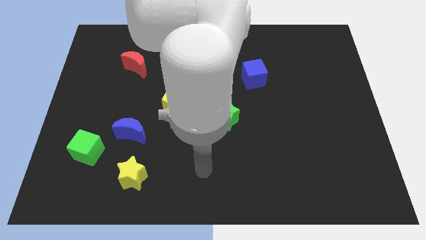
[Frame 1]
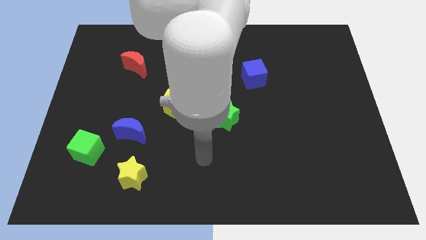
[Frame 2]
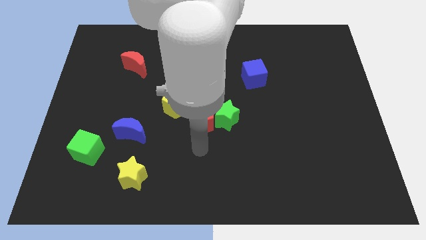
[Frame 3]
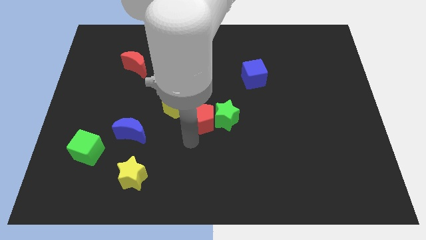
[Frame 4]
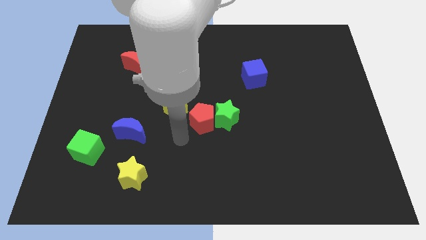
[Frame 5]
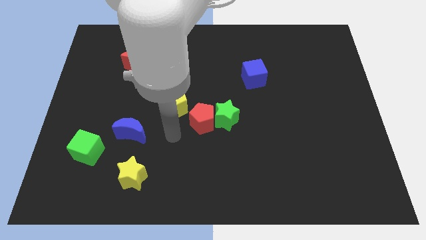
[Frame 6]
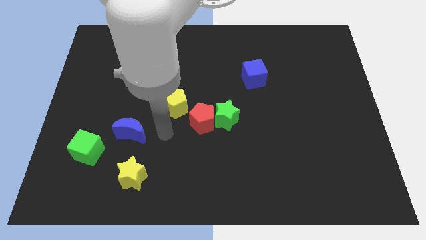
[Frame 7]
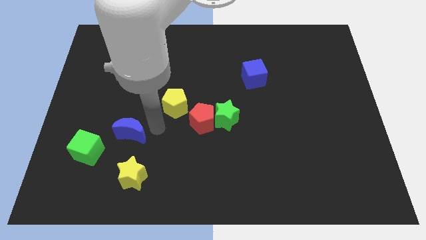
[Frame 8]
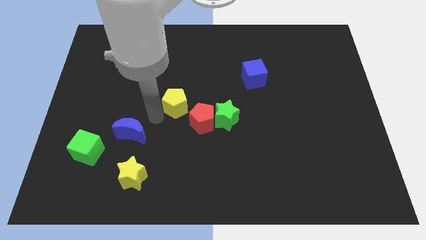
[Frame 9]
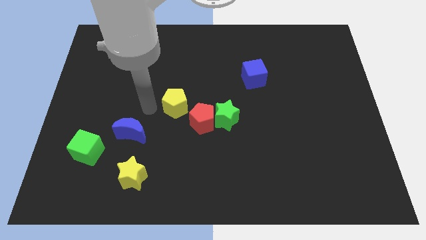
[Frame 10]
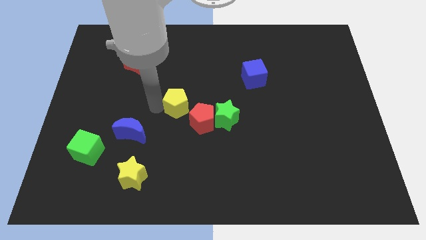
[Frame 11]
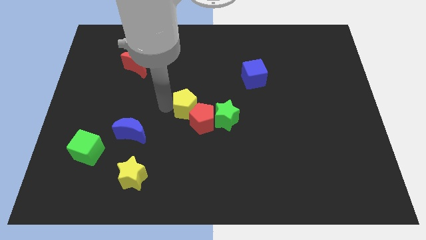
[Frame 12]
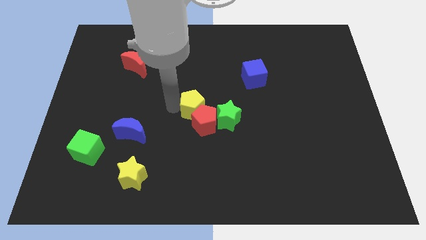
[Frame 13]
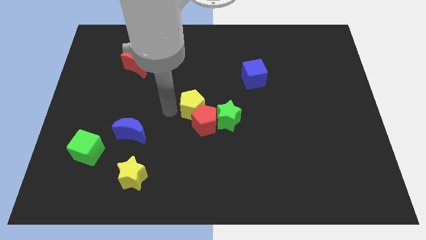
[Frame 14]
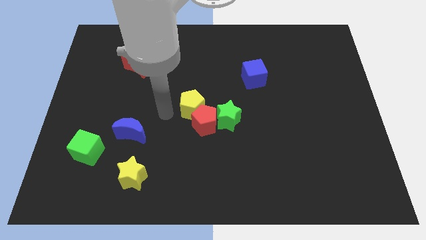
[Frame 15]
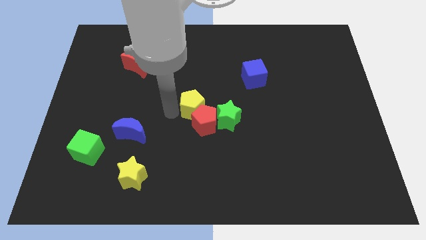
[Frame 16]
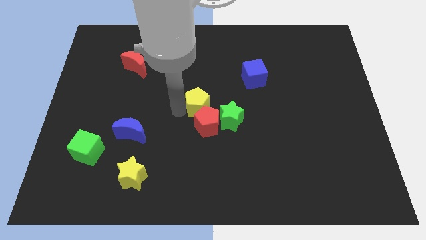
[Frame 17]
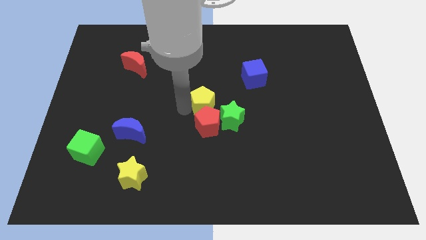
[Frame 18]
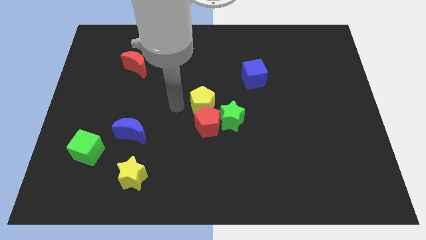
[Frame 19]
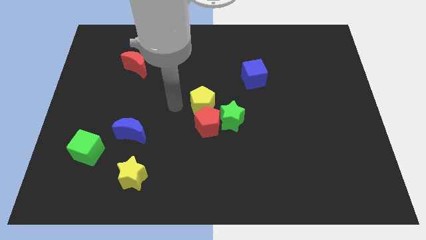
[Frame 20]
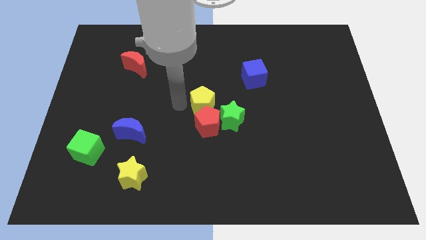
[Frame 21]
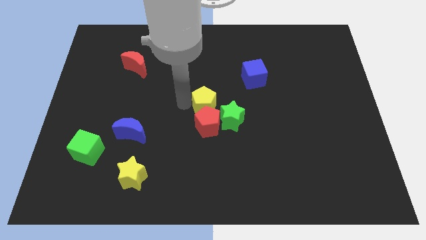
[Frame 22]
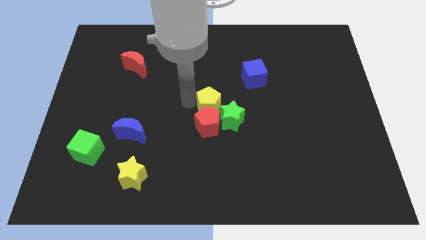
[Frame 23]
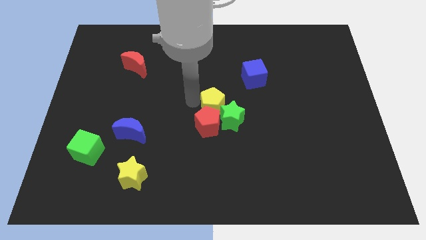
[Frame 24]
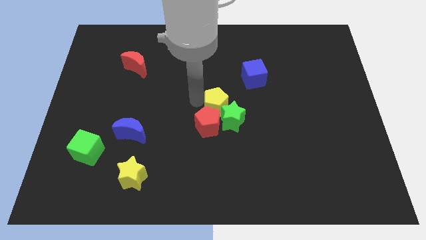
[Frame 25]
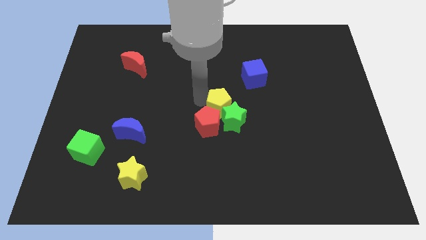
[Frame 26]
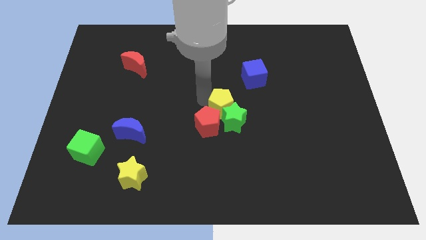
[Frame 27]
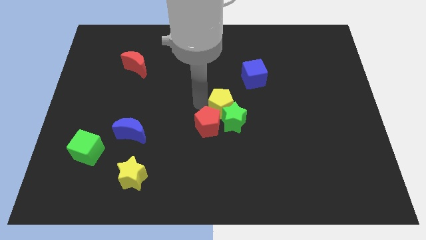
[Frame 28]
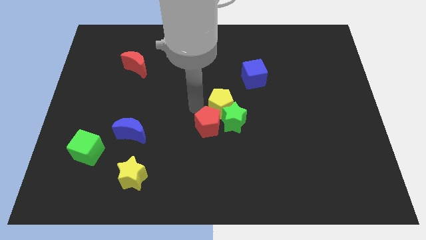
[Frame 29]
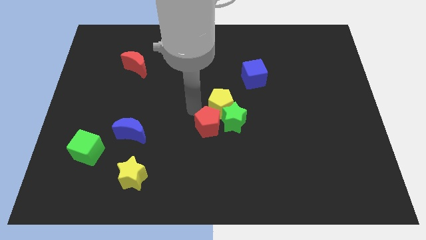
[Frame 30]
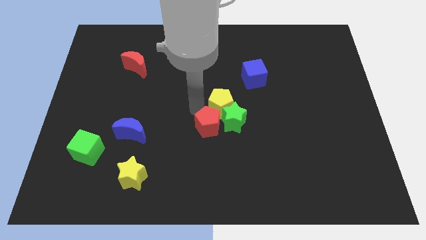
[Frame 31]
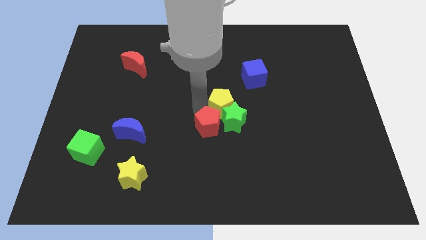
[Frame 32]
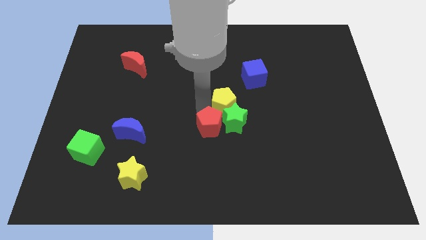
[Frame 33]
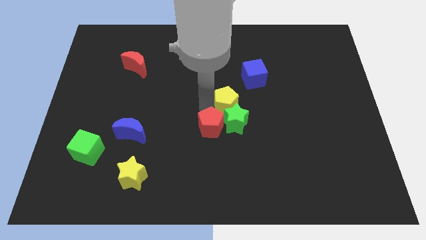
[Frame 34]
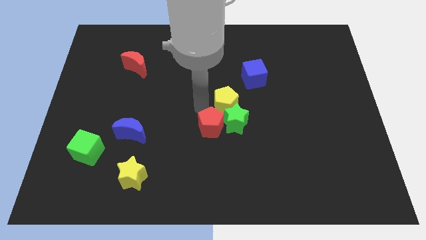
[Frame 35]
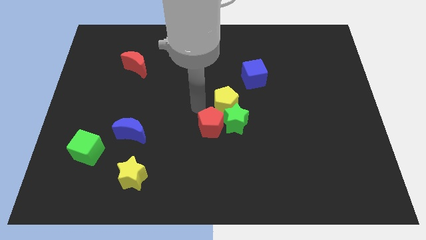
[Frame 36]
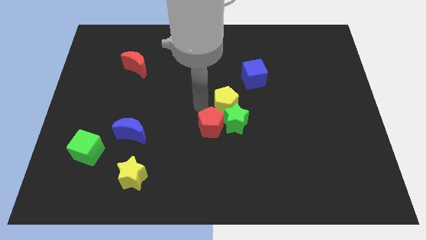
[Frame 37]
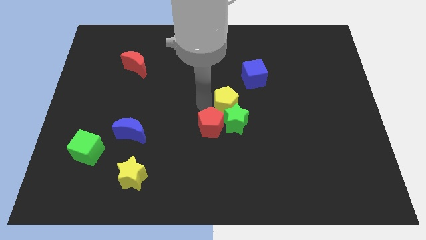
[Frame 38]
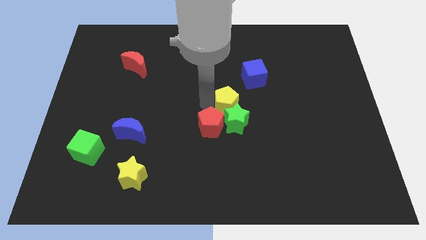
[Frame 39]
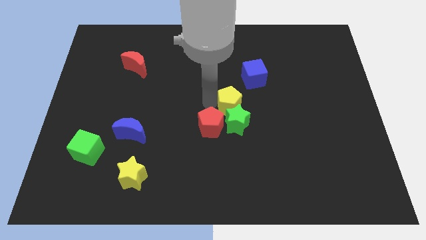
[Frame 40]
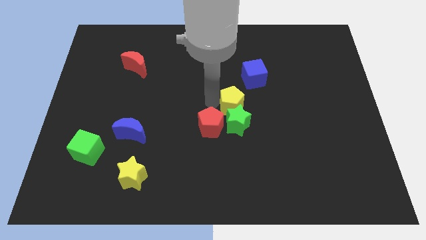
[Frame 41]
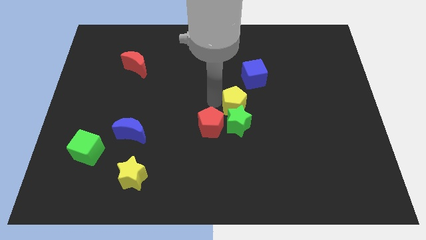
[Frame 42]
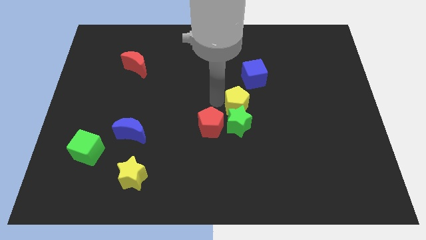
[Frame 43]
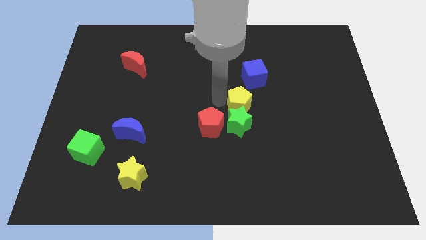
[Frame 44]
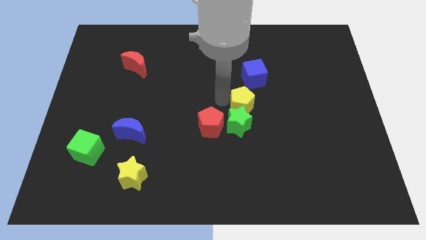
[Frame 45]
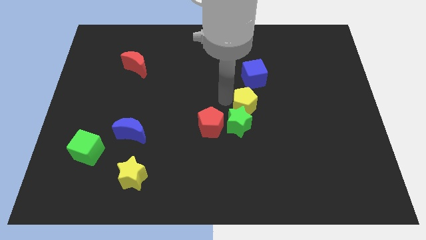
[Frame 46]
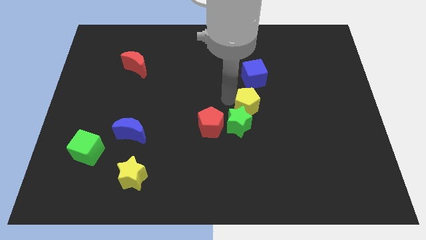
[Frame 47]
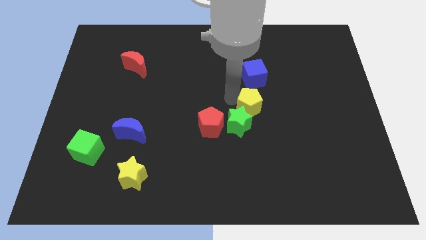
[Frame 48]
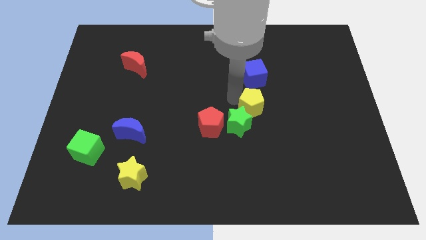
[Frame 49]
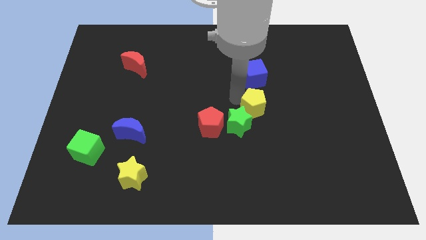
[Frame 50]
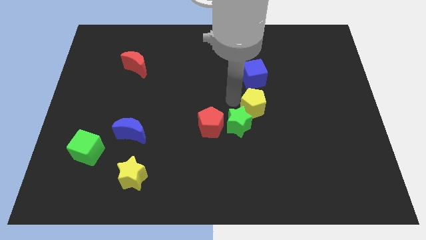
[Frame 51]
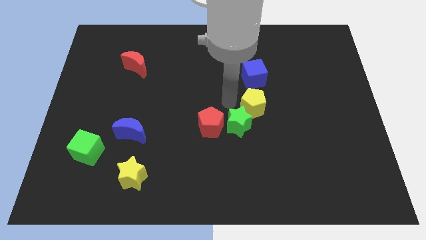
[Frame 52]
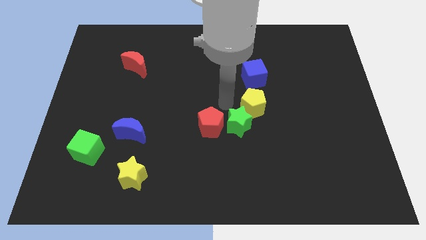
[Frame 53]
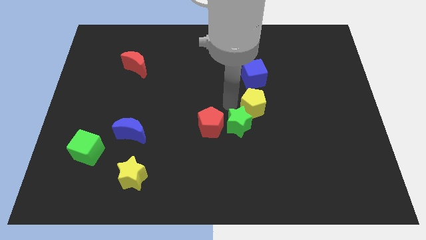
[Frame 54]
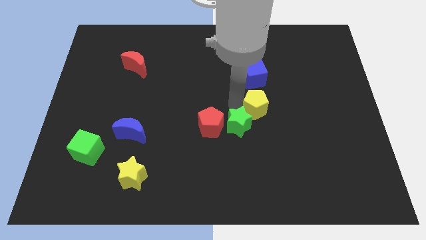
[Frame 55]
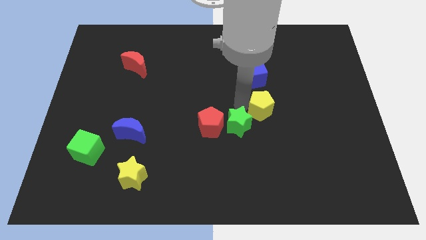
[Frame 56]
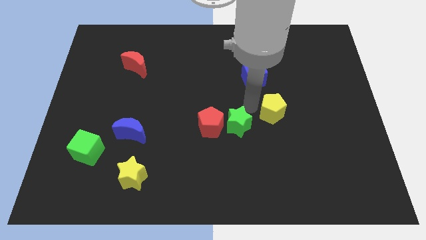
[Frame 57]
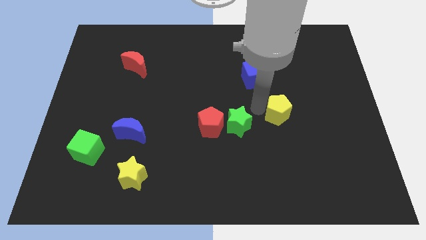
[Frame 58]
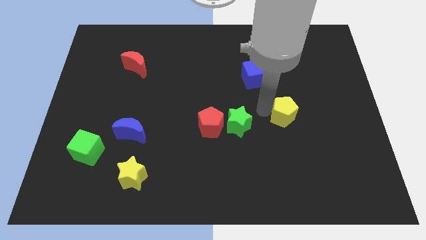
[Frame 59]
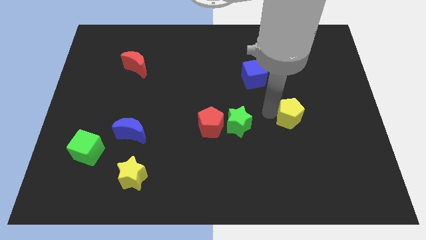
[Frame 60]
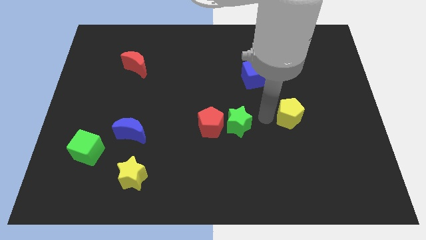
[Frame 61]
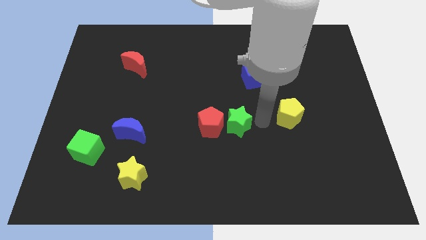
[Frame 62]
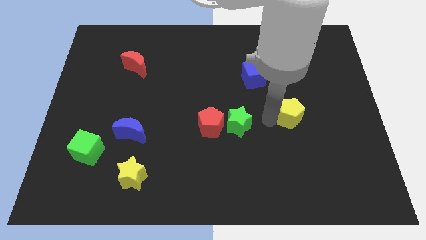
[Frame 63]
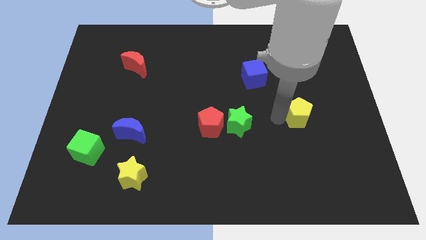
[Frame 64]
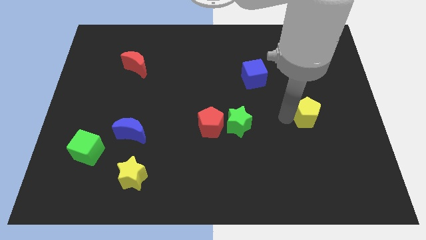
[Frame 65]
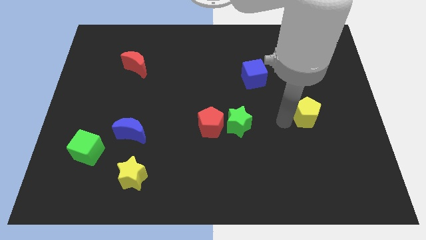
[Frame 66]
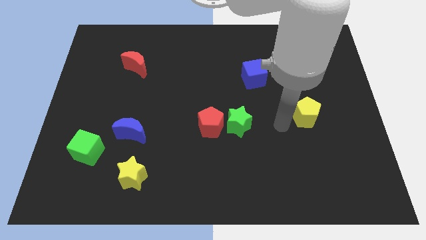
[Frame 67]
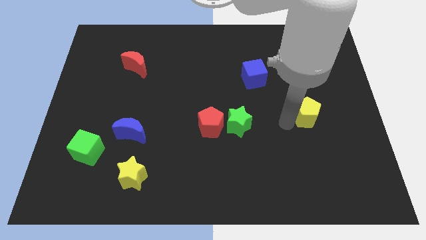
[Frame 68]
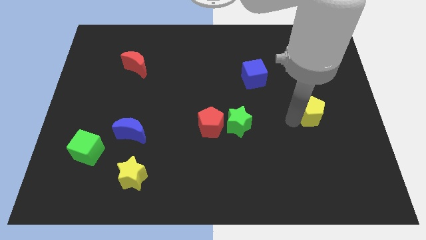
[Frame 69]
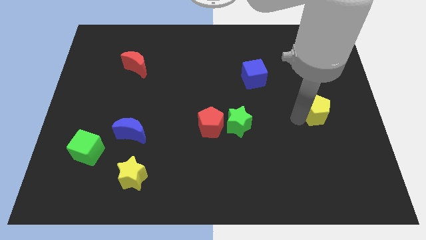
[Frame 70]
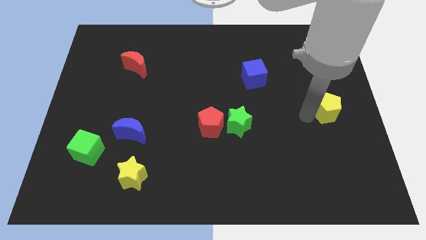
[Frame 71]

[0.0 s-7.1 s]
push the yellow pentagon to the right side
